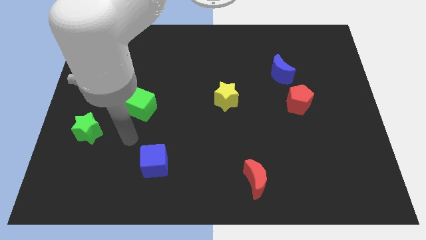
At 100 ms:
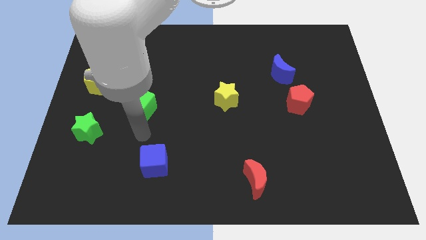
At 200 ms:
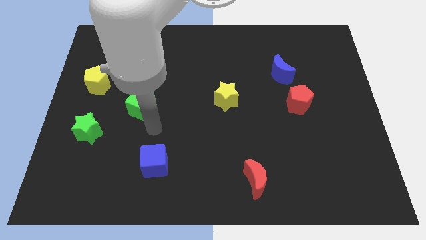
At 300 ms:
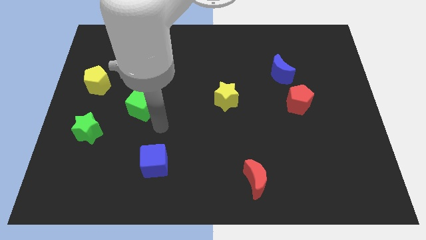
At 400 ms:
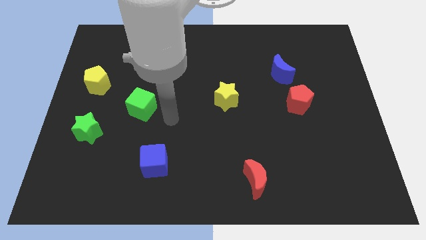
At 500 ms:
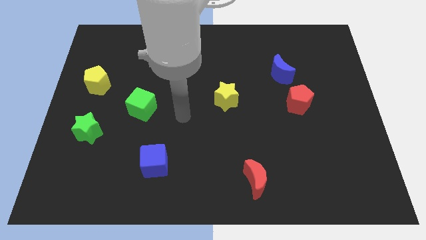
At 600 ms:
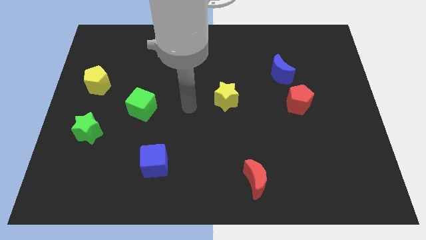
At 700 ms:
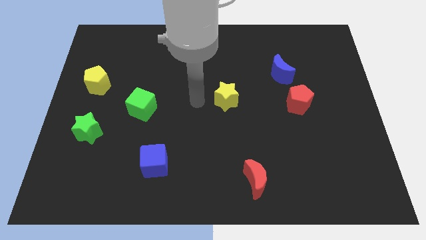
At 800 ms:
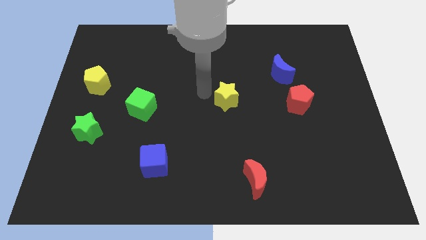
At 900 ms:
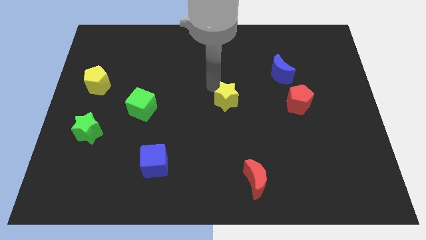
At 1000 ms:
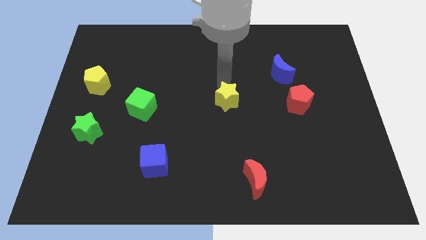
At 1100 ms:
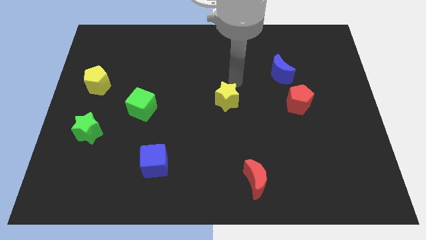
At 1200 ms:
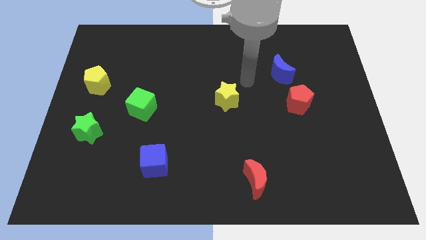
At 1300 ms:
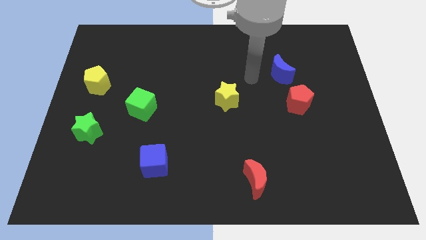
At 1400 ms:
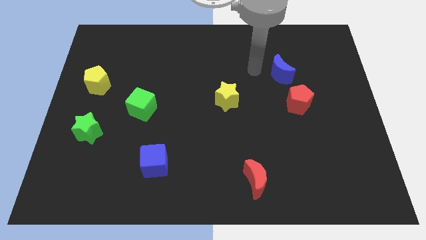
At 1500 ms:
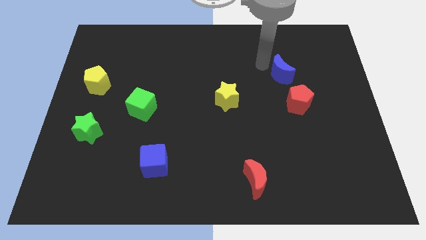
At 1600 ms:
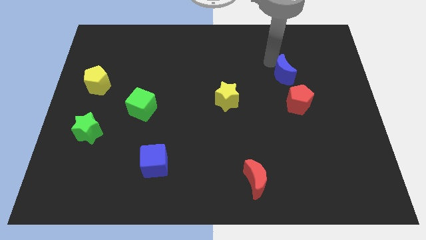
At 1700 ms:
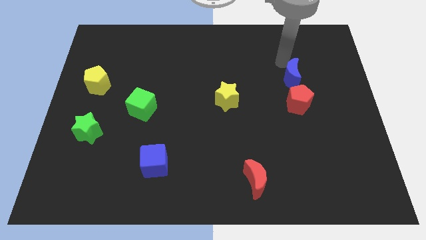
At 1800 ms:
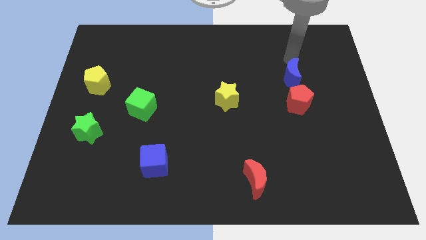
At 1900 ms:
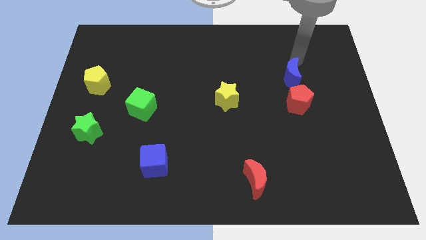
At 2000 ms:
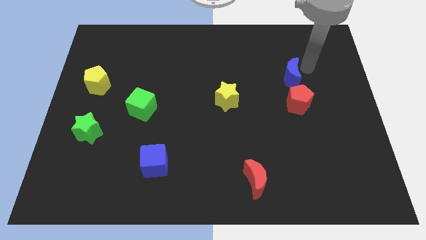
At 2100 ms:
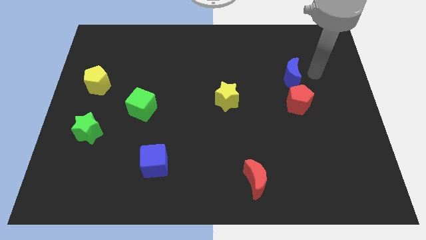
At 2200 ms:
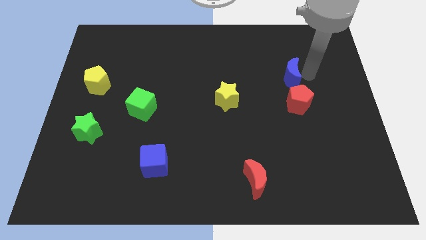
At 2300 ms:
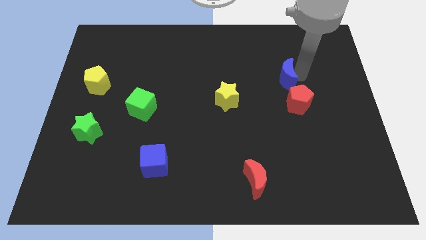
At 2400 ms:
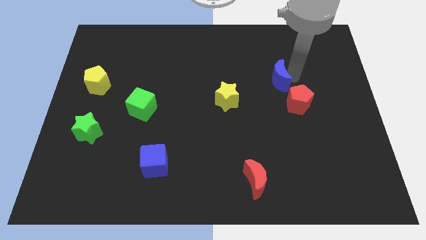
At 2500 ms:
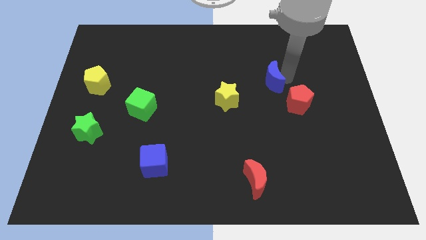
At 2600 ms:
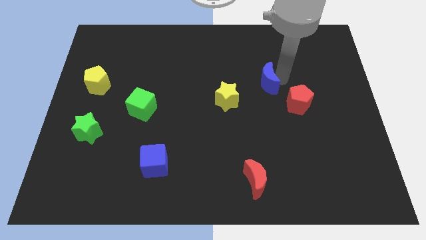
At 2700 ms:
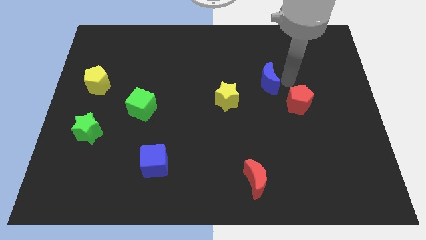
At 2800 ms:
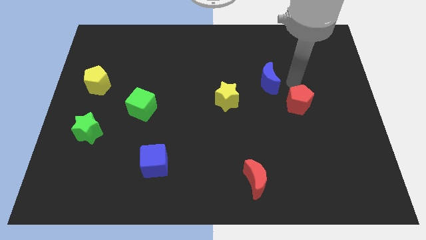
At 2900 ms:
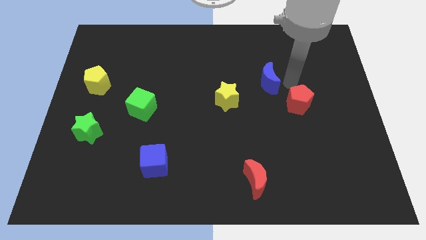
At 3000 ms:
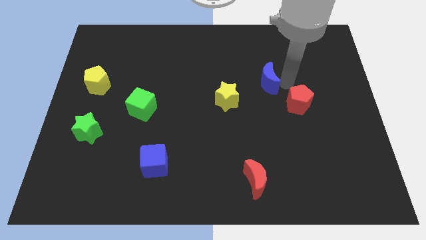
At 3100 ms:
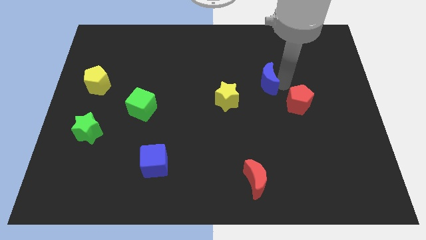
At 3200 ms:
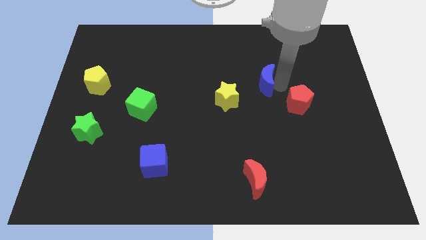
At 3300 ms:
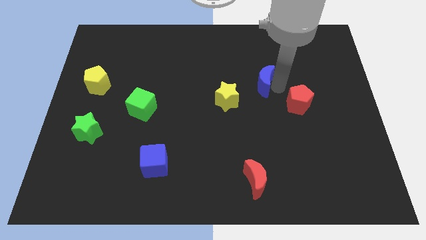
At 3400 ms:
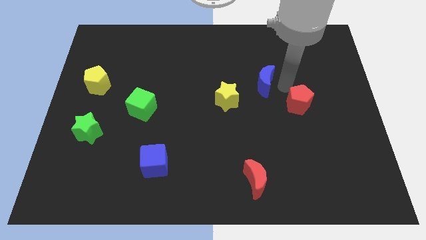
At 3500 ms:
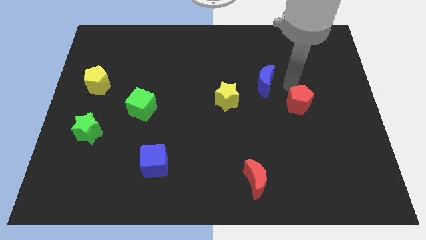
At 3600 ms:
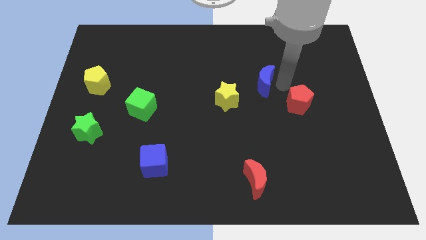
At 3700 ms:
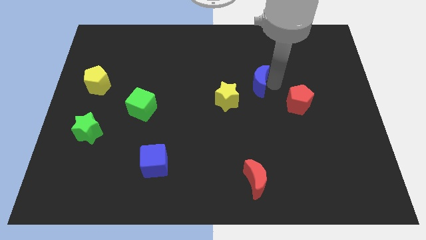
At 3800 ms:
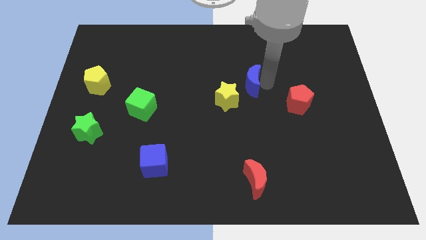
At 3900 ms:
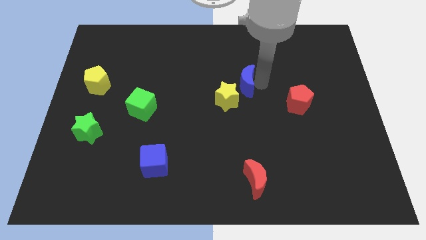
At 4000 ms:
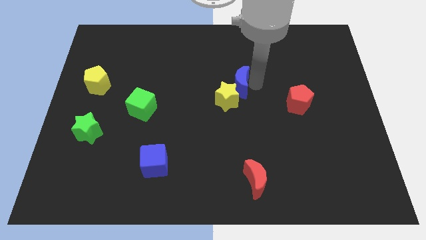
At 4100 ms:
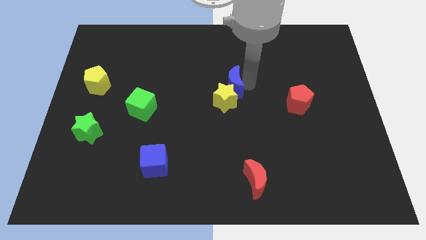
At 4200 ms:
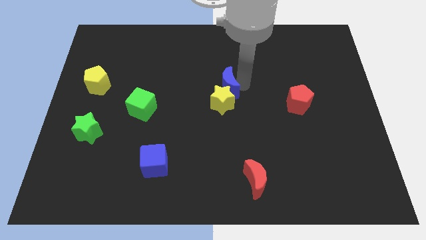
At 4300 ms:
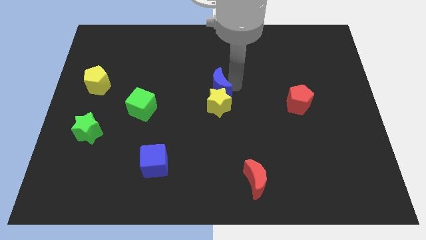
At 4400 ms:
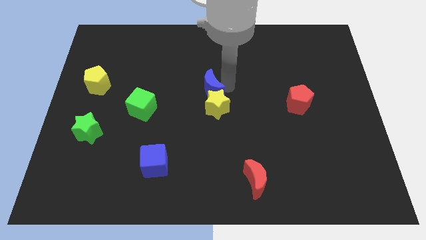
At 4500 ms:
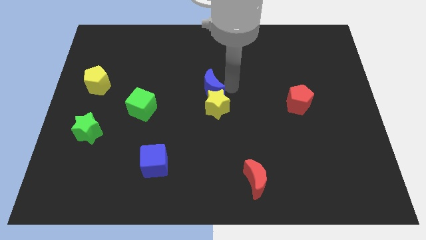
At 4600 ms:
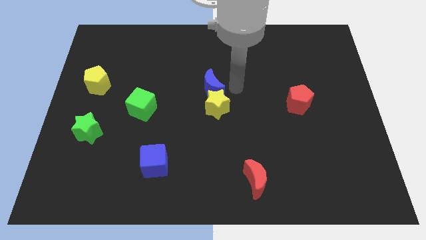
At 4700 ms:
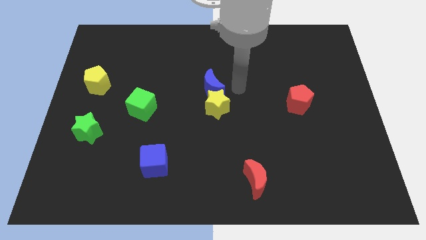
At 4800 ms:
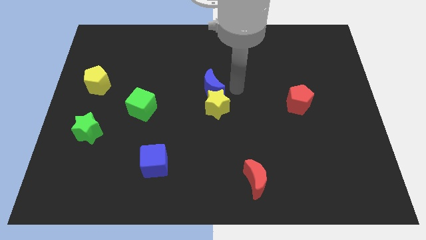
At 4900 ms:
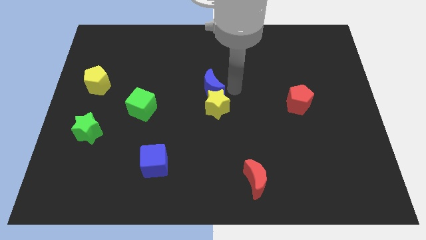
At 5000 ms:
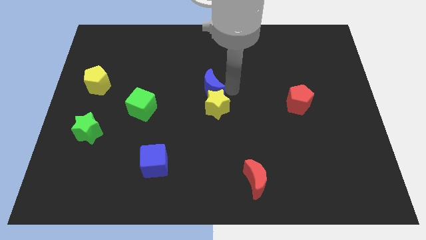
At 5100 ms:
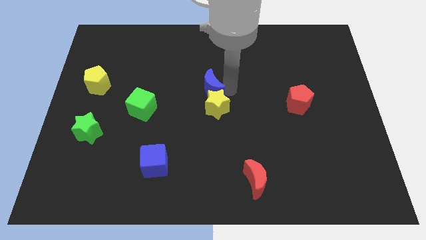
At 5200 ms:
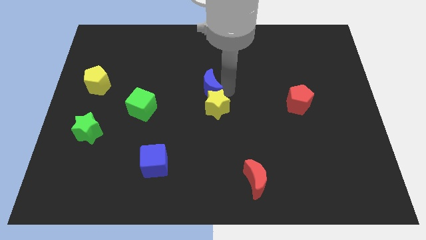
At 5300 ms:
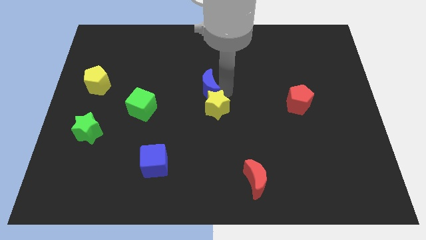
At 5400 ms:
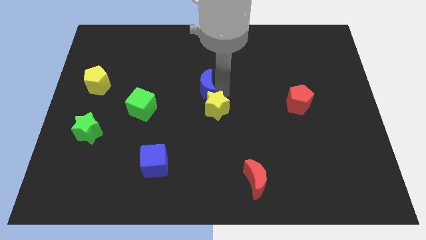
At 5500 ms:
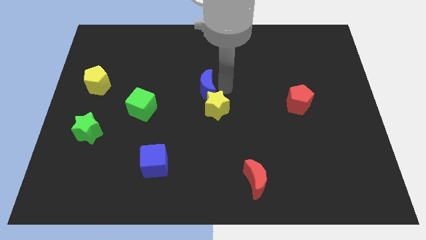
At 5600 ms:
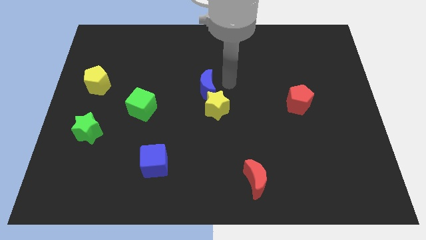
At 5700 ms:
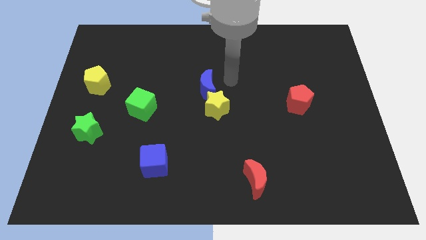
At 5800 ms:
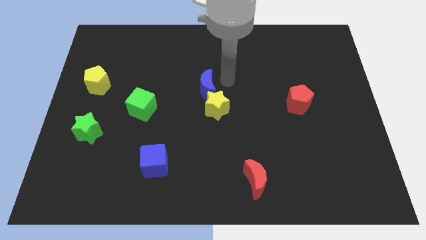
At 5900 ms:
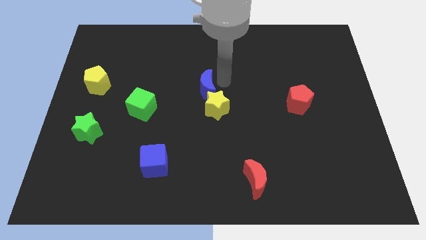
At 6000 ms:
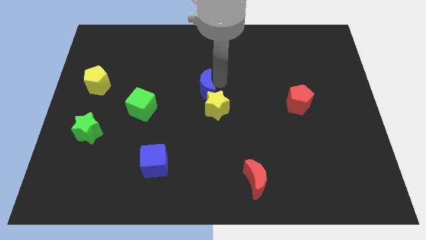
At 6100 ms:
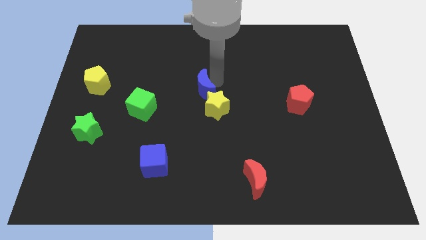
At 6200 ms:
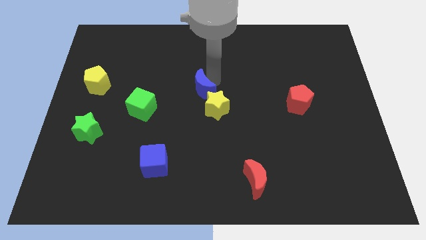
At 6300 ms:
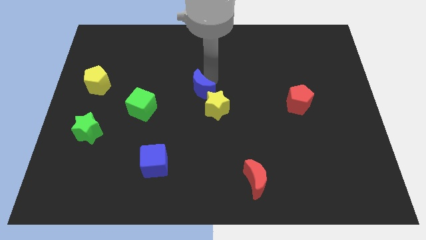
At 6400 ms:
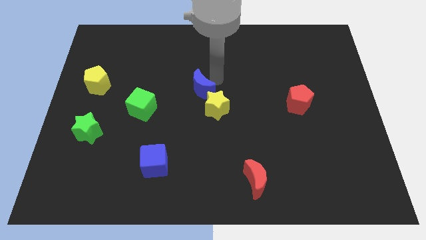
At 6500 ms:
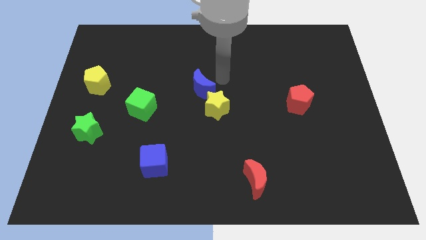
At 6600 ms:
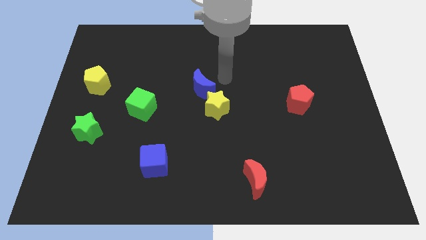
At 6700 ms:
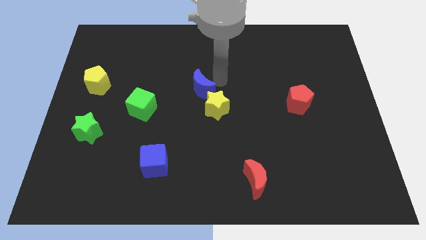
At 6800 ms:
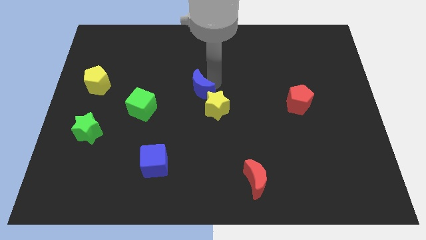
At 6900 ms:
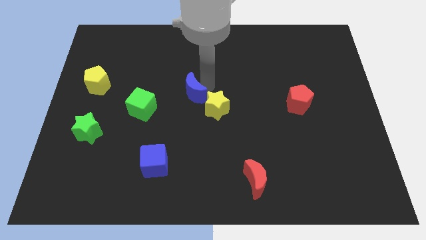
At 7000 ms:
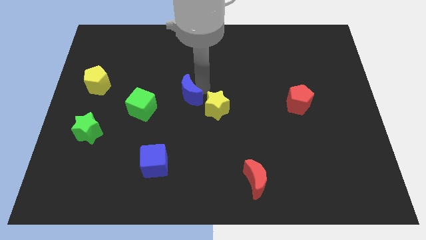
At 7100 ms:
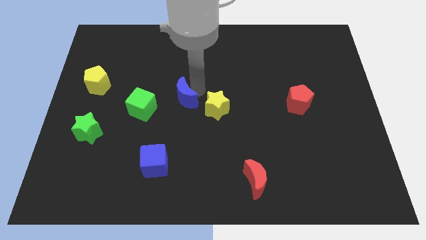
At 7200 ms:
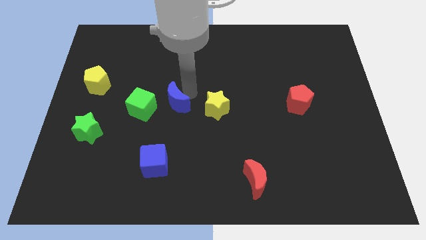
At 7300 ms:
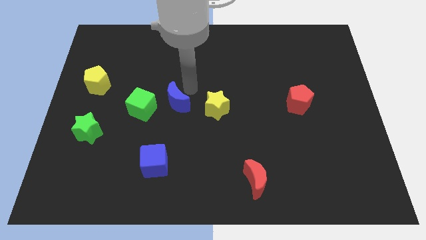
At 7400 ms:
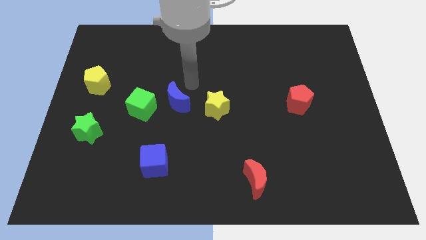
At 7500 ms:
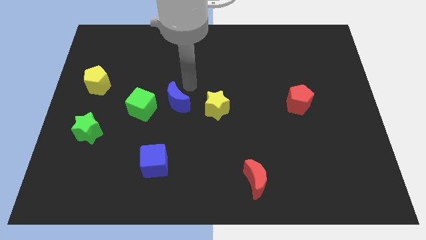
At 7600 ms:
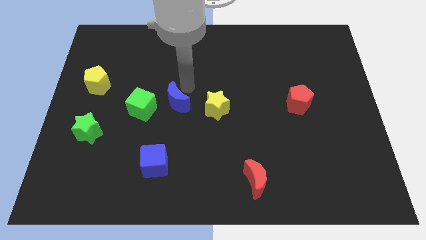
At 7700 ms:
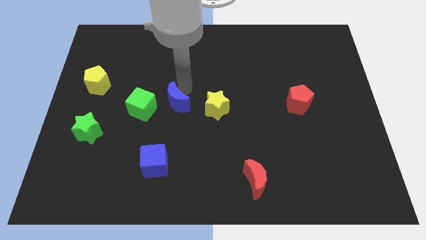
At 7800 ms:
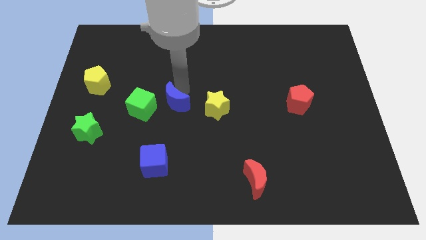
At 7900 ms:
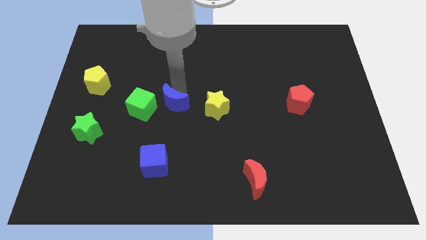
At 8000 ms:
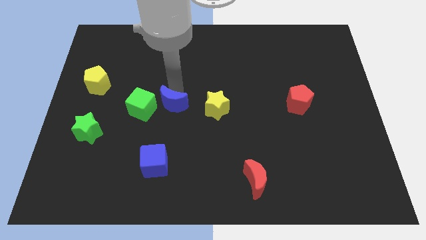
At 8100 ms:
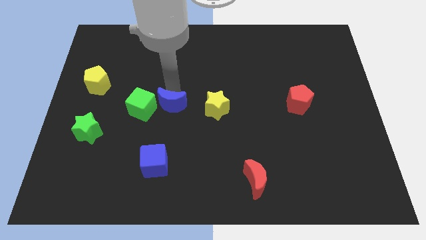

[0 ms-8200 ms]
move the blue moon to the top side of the blue cube
